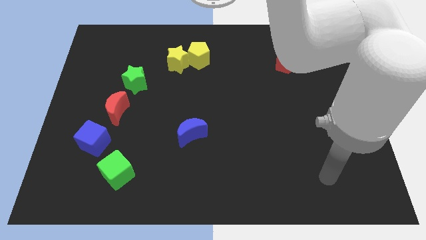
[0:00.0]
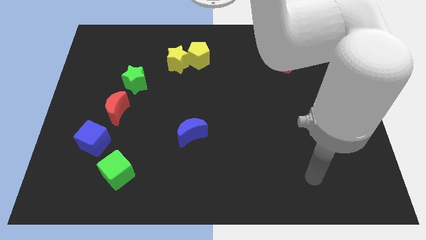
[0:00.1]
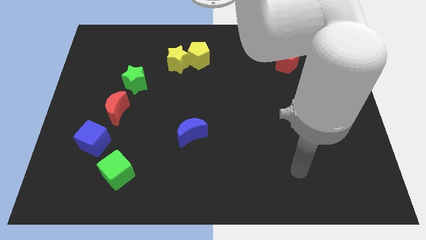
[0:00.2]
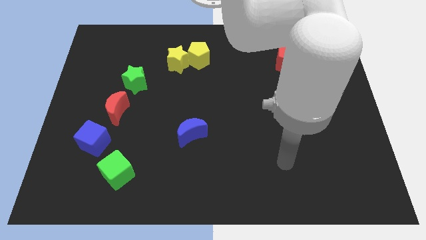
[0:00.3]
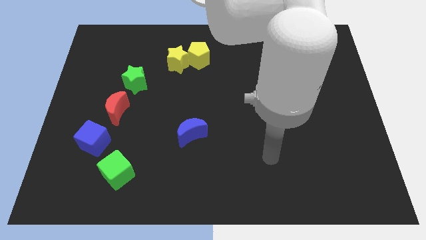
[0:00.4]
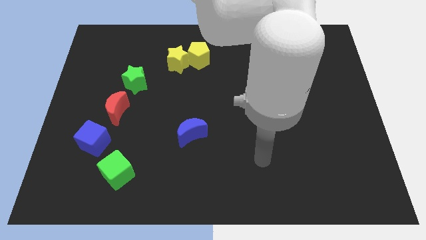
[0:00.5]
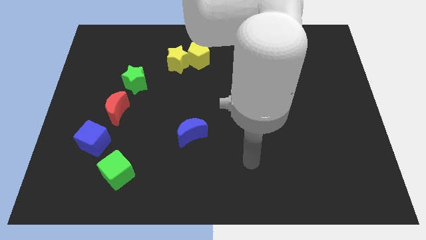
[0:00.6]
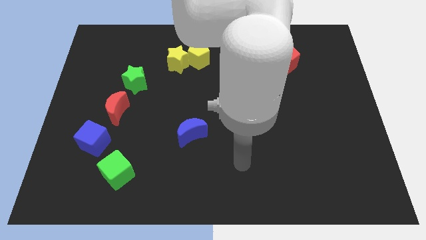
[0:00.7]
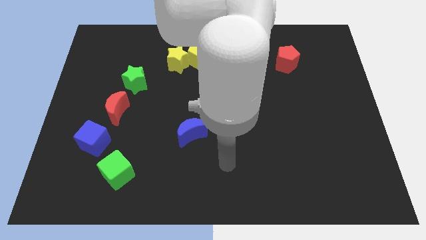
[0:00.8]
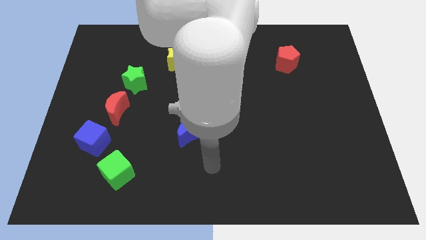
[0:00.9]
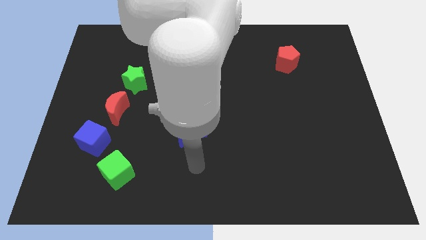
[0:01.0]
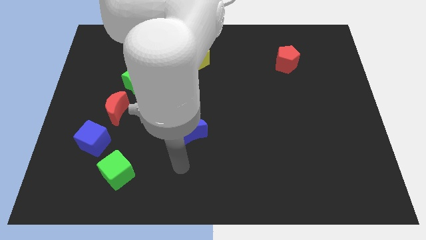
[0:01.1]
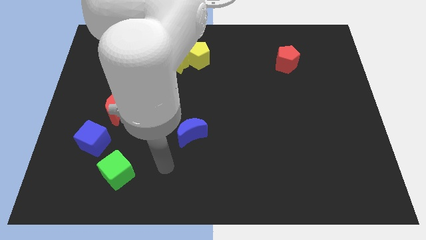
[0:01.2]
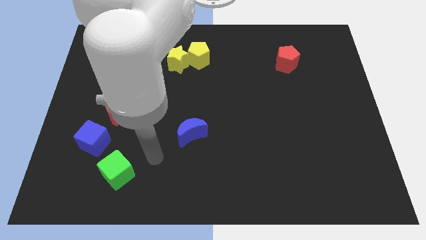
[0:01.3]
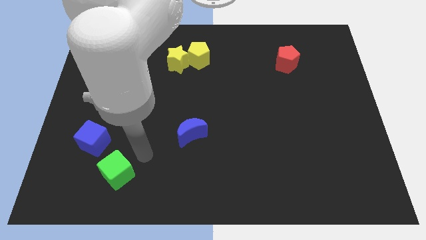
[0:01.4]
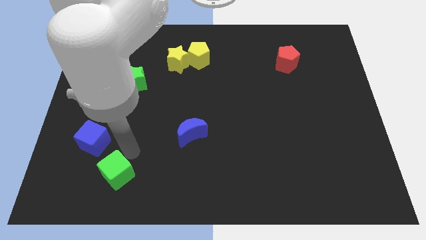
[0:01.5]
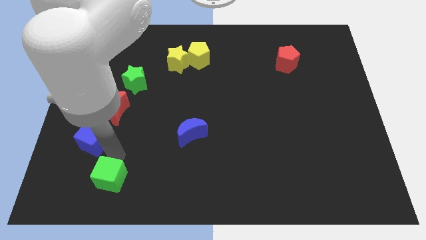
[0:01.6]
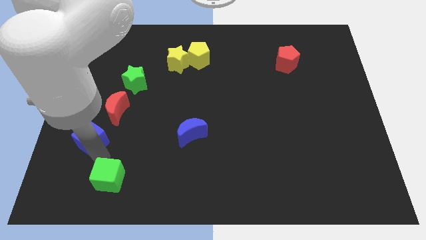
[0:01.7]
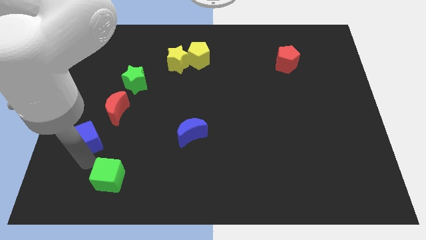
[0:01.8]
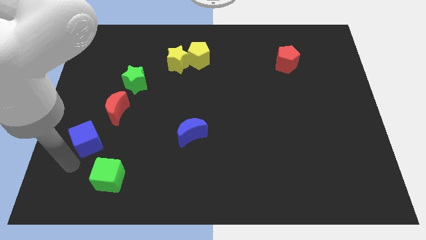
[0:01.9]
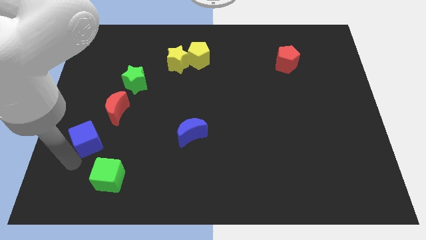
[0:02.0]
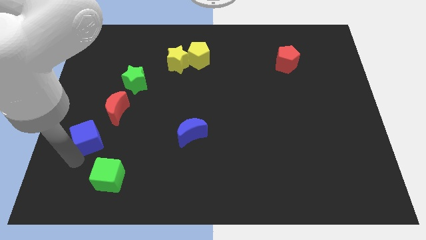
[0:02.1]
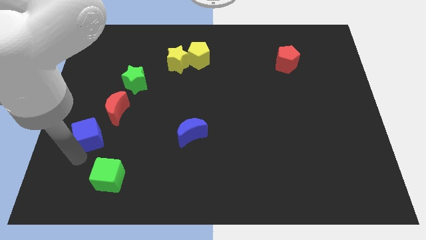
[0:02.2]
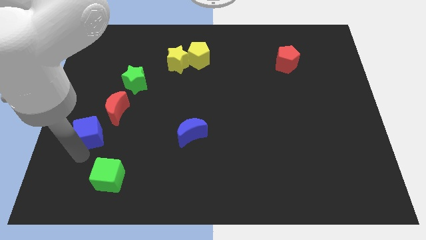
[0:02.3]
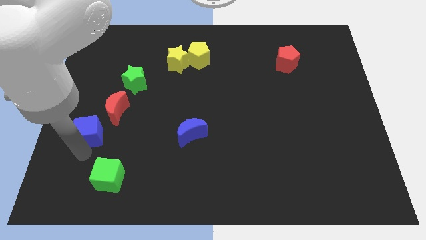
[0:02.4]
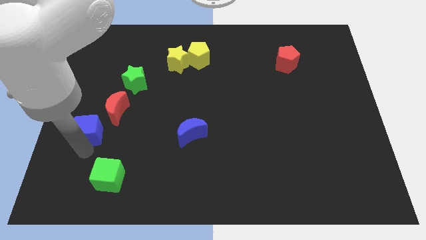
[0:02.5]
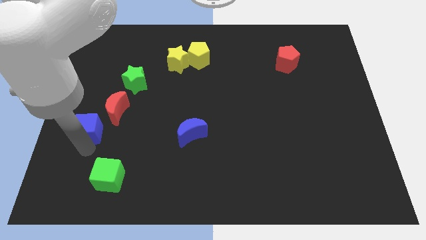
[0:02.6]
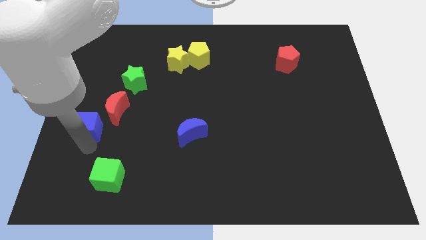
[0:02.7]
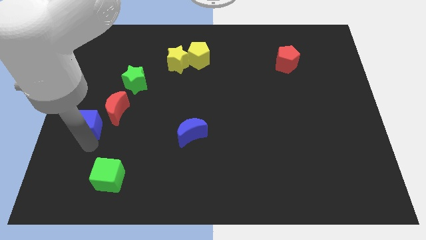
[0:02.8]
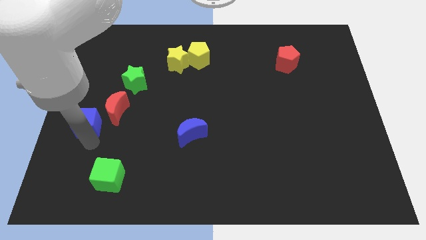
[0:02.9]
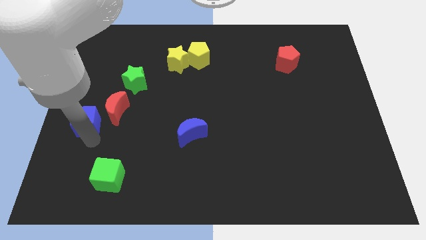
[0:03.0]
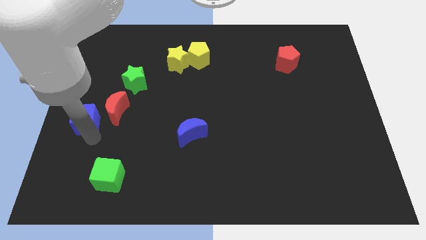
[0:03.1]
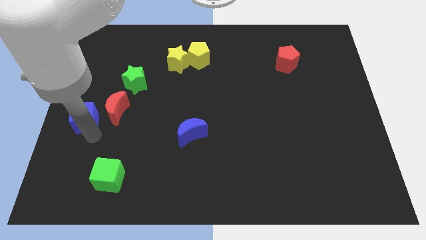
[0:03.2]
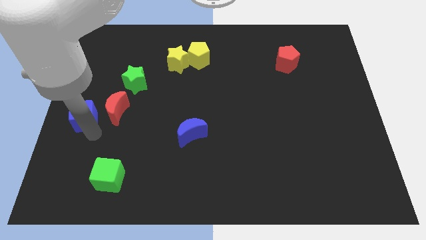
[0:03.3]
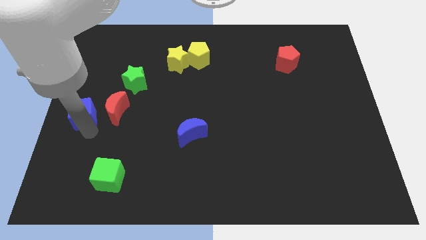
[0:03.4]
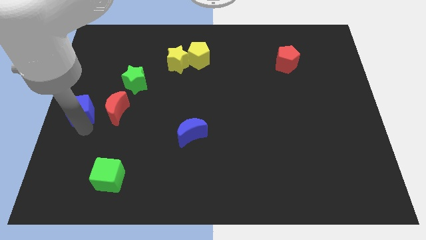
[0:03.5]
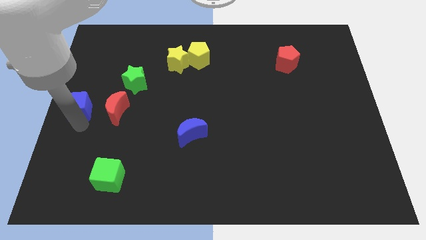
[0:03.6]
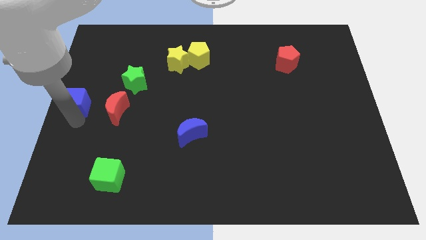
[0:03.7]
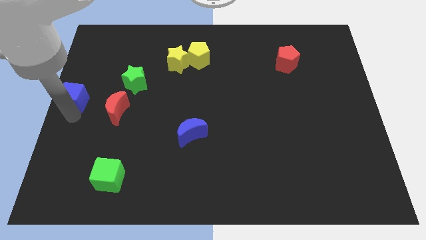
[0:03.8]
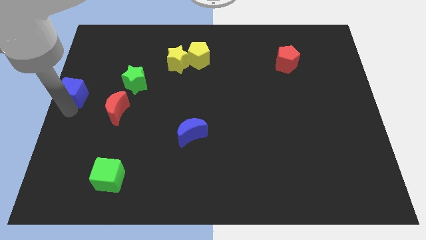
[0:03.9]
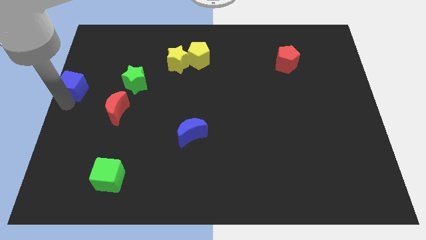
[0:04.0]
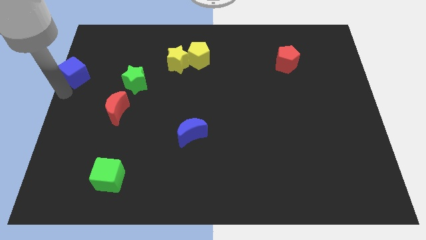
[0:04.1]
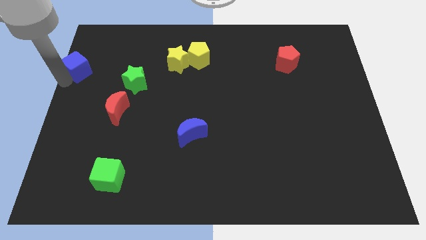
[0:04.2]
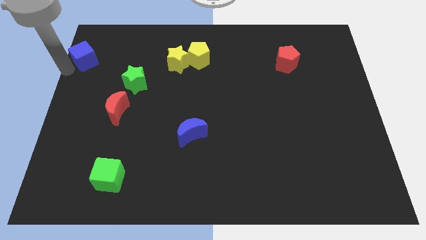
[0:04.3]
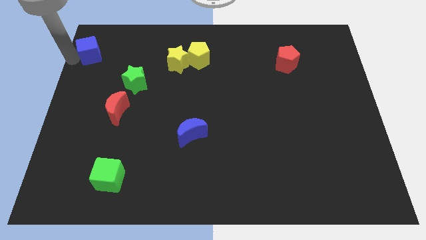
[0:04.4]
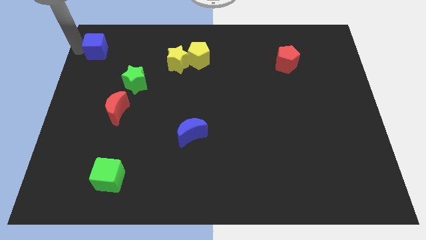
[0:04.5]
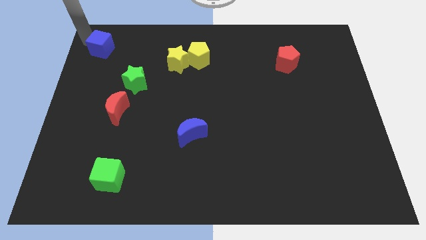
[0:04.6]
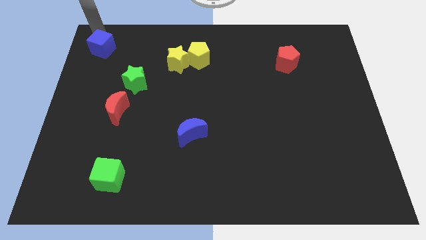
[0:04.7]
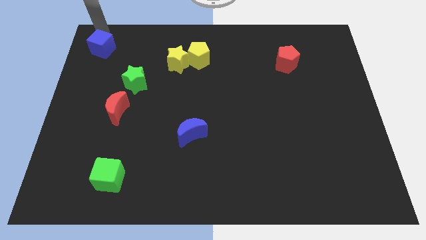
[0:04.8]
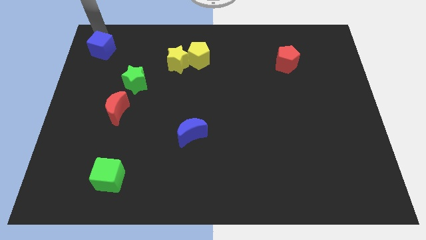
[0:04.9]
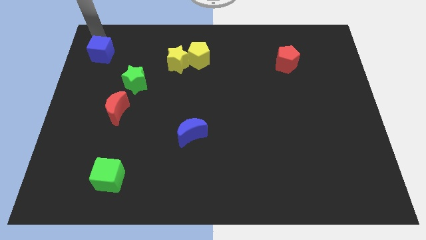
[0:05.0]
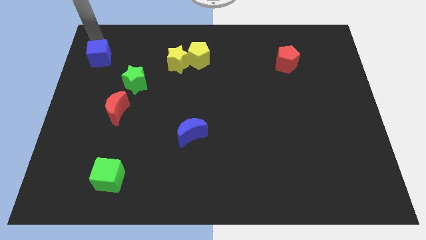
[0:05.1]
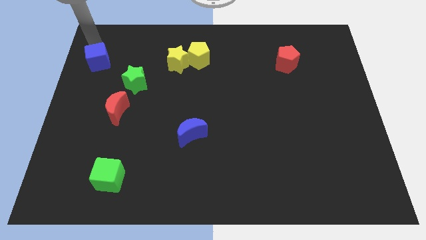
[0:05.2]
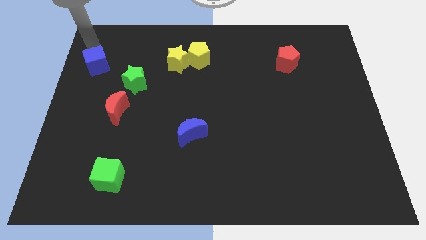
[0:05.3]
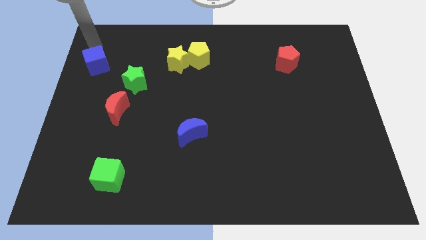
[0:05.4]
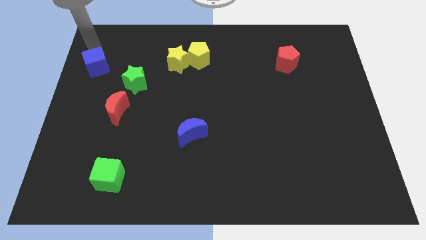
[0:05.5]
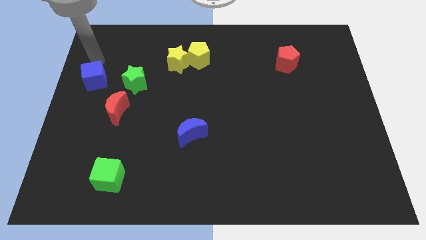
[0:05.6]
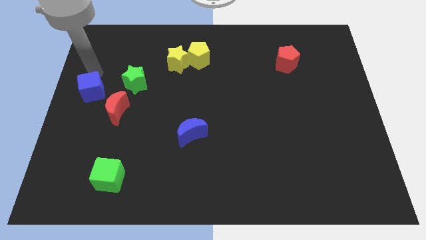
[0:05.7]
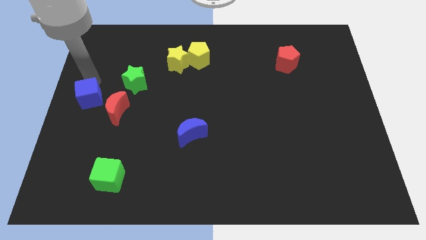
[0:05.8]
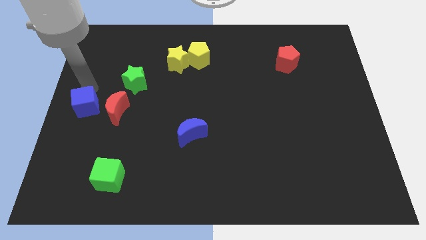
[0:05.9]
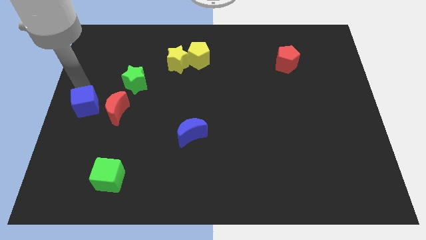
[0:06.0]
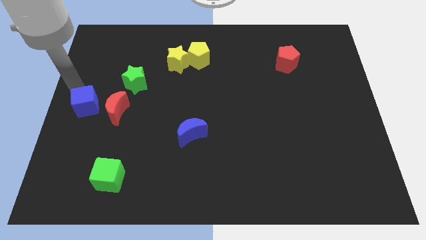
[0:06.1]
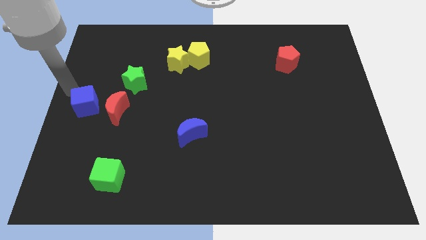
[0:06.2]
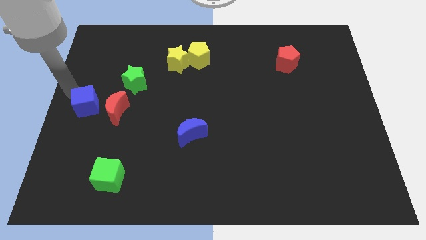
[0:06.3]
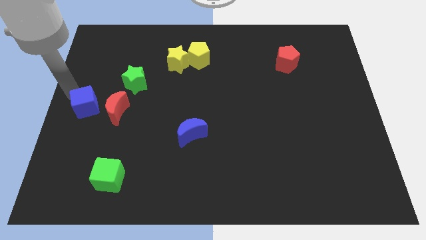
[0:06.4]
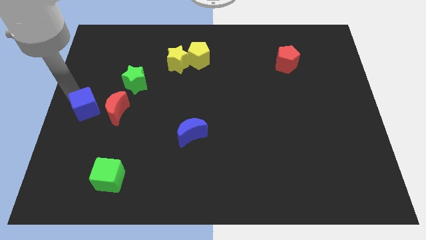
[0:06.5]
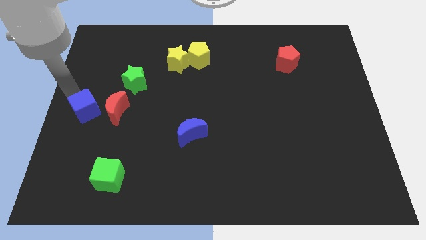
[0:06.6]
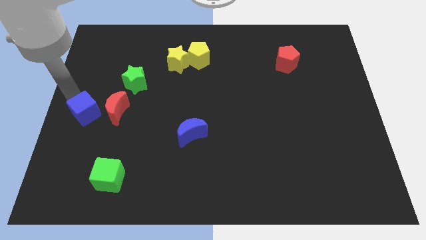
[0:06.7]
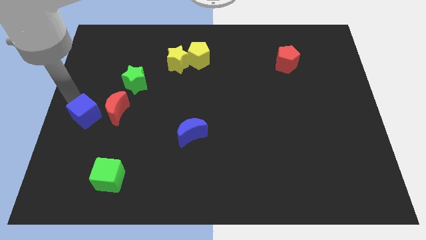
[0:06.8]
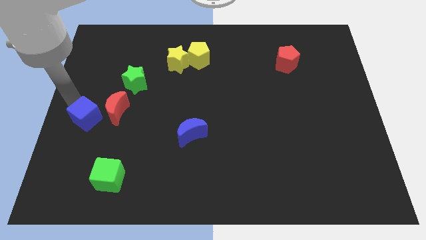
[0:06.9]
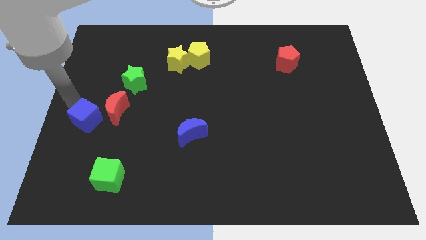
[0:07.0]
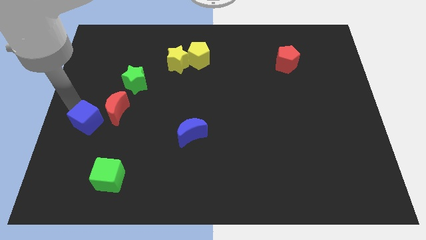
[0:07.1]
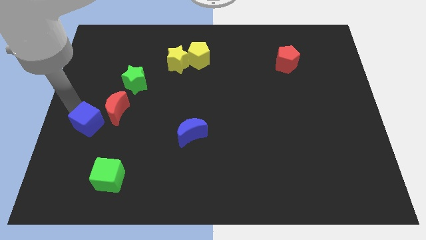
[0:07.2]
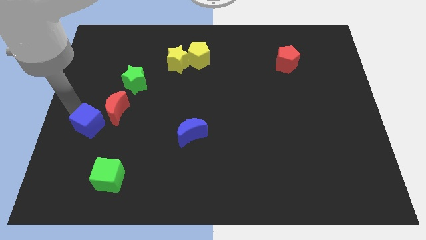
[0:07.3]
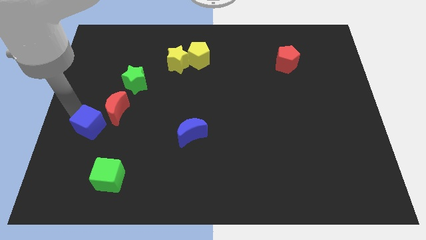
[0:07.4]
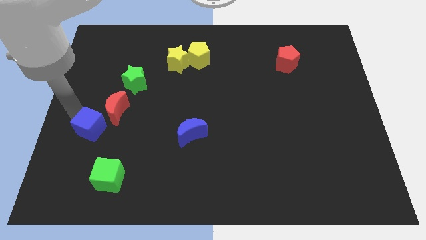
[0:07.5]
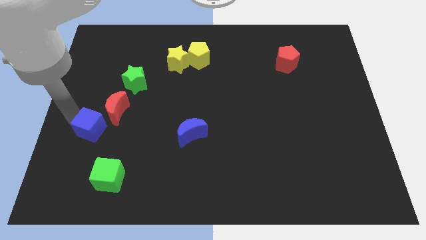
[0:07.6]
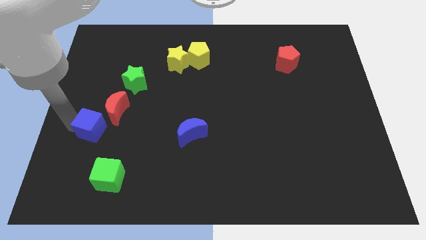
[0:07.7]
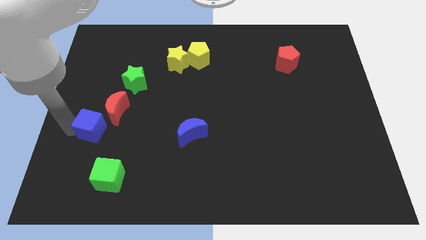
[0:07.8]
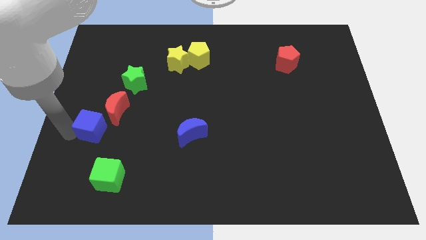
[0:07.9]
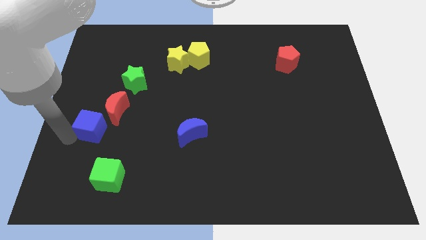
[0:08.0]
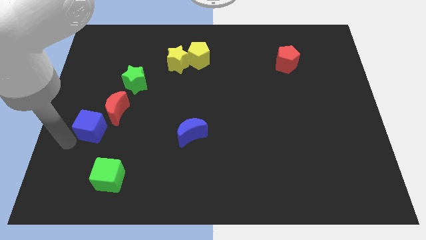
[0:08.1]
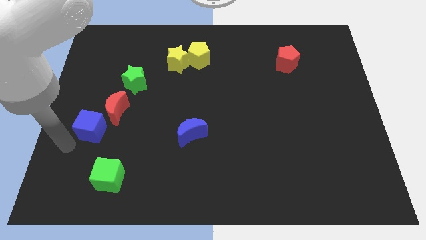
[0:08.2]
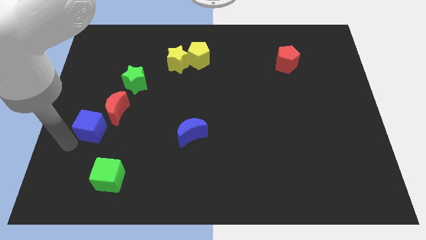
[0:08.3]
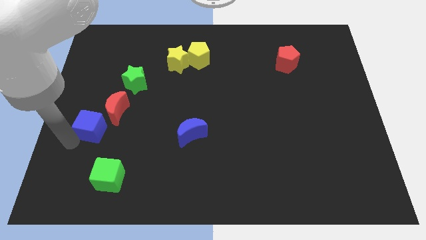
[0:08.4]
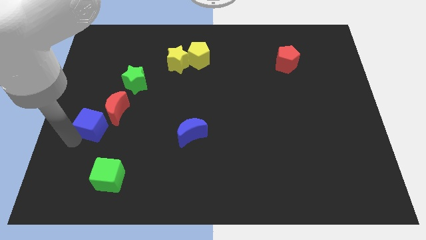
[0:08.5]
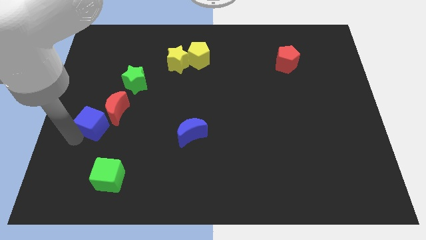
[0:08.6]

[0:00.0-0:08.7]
slide the blue cube towards the red moon
